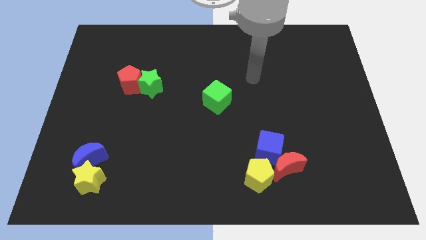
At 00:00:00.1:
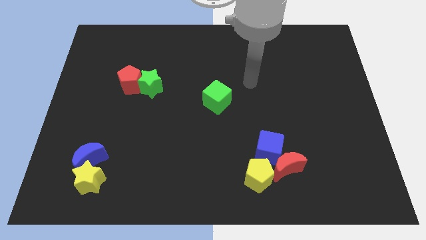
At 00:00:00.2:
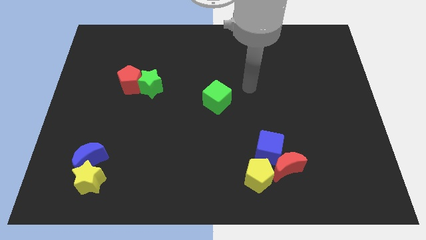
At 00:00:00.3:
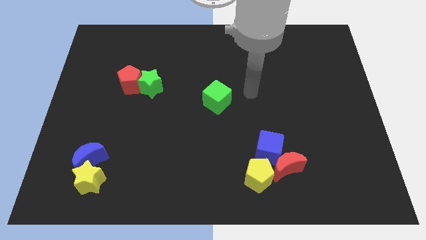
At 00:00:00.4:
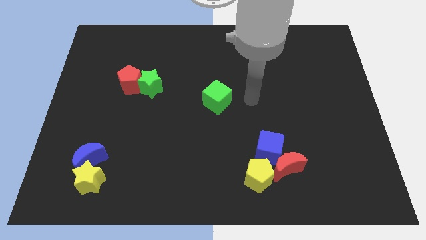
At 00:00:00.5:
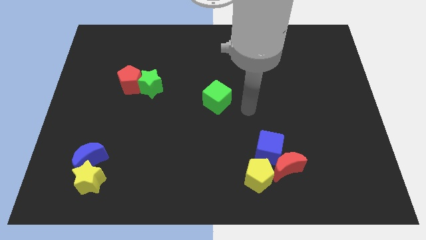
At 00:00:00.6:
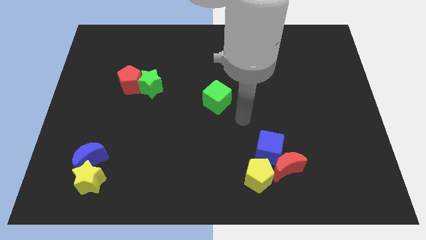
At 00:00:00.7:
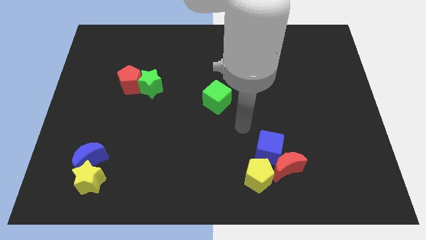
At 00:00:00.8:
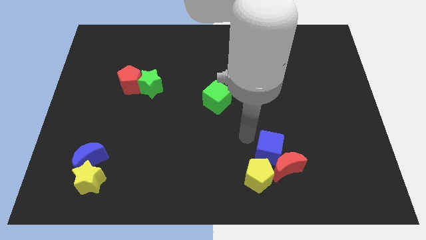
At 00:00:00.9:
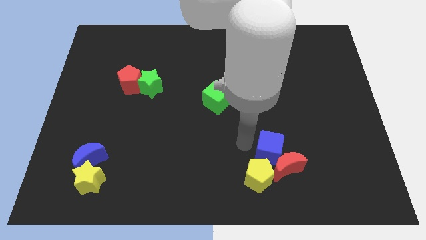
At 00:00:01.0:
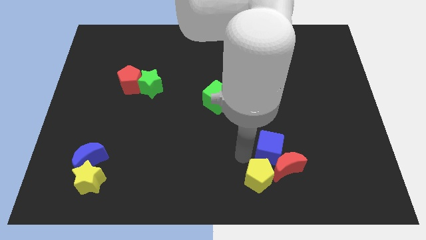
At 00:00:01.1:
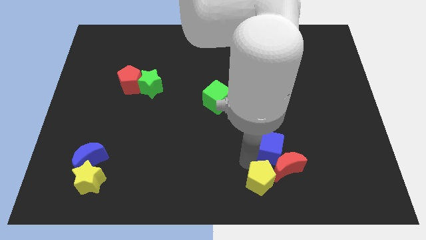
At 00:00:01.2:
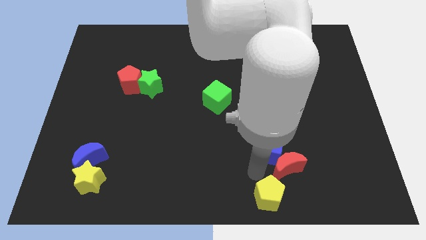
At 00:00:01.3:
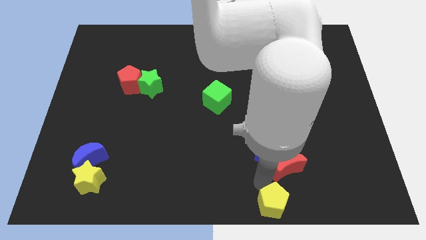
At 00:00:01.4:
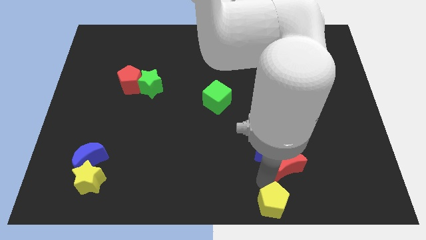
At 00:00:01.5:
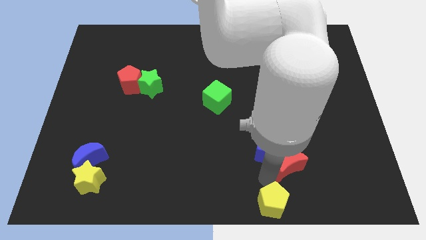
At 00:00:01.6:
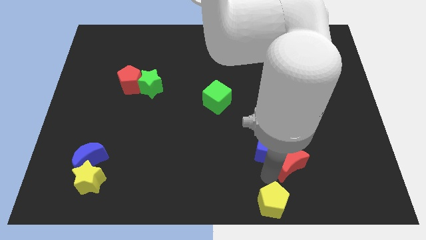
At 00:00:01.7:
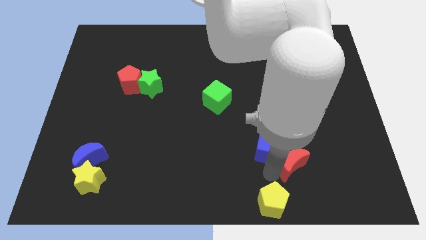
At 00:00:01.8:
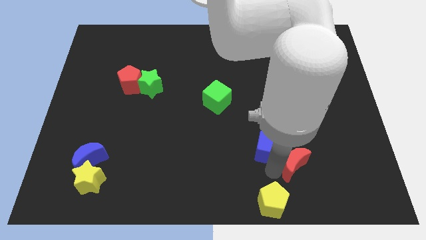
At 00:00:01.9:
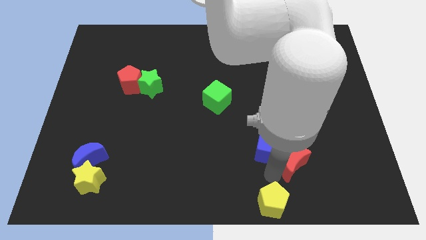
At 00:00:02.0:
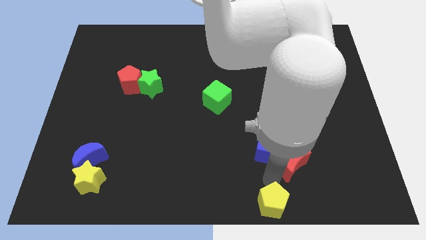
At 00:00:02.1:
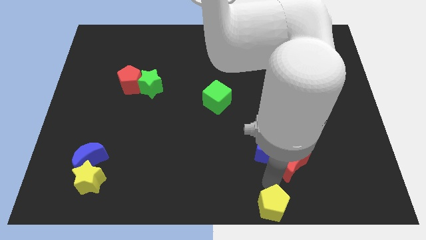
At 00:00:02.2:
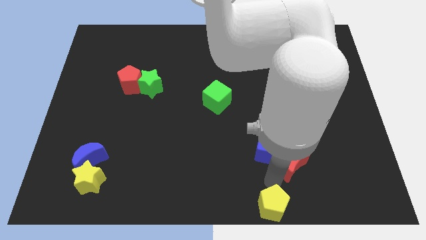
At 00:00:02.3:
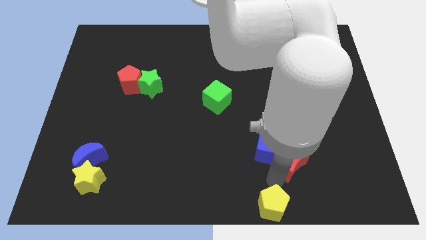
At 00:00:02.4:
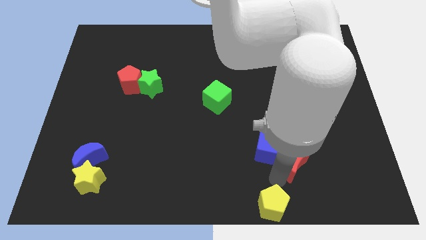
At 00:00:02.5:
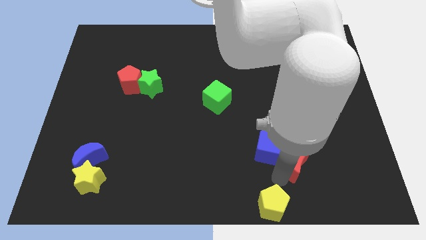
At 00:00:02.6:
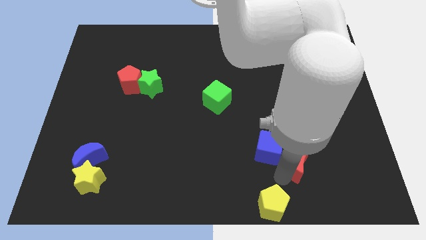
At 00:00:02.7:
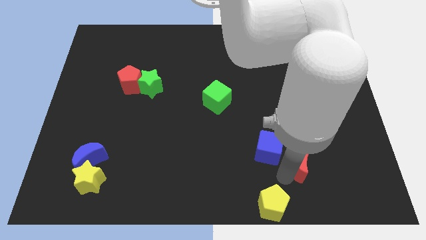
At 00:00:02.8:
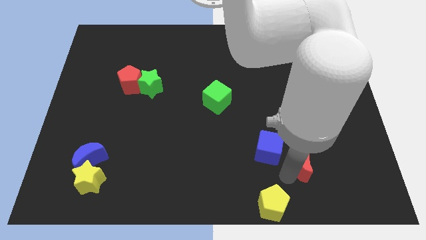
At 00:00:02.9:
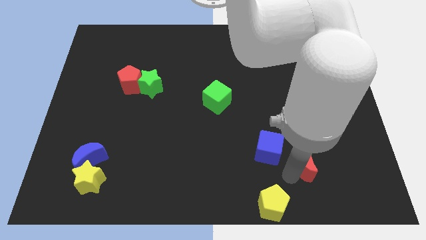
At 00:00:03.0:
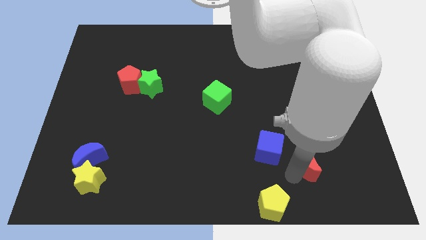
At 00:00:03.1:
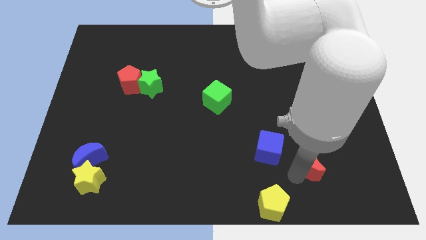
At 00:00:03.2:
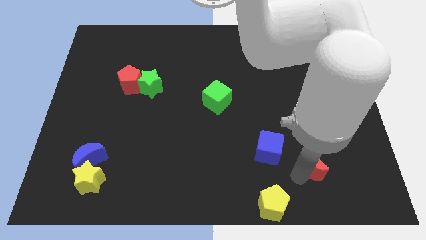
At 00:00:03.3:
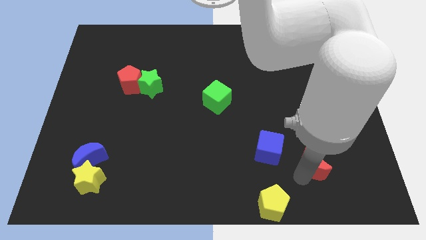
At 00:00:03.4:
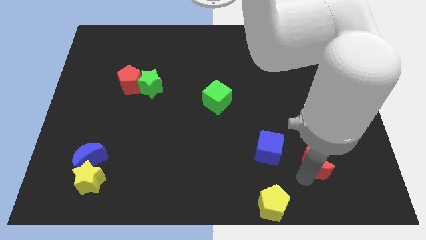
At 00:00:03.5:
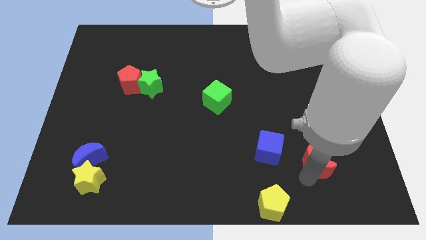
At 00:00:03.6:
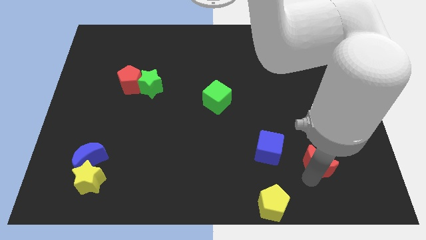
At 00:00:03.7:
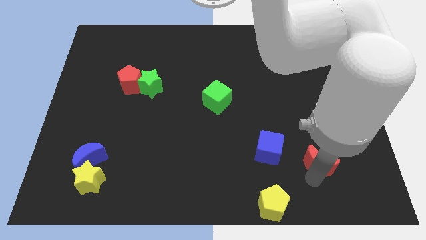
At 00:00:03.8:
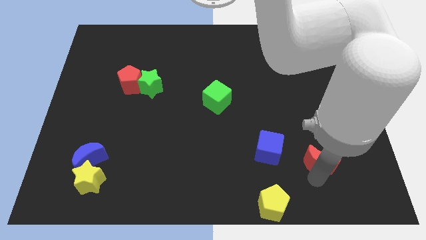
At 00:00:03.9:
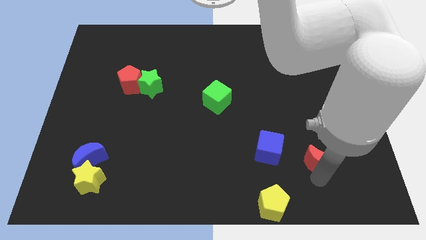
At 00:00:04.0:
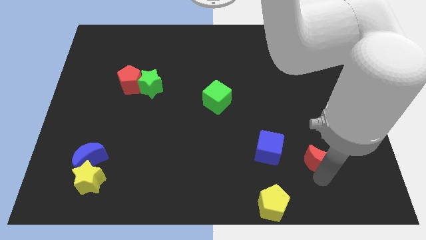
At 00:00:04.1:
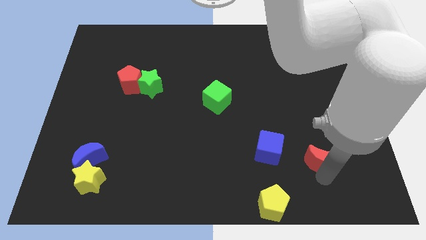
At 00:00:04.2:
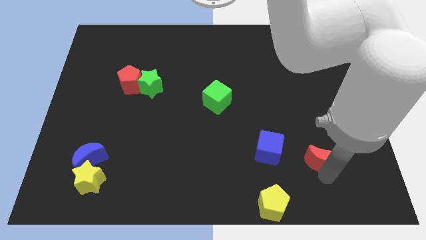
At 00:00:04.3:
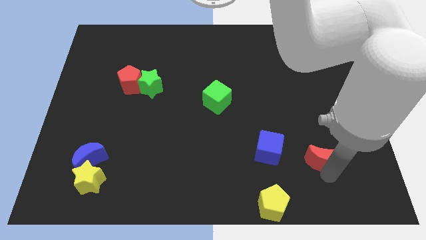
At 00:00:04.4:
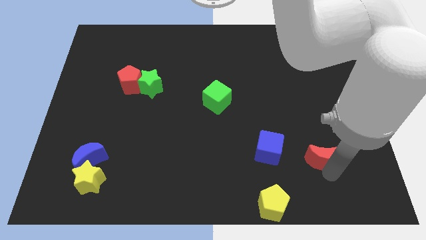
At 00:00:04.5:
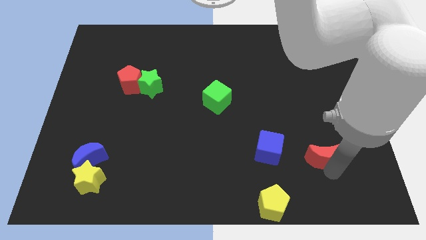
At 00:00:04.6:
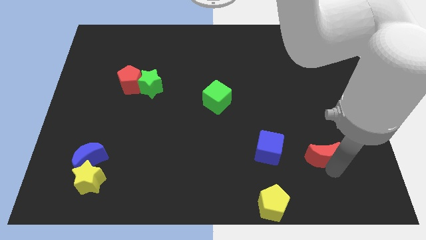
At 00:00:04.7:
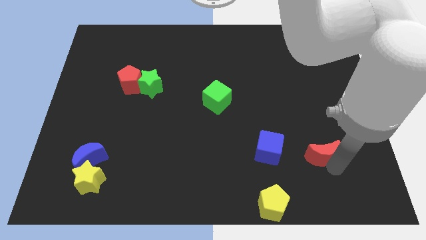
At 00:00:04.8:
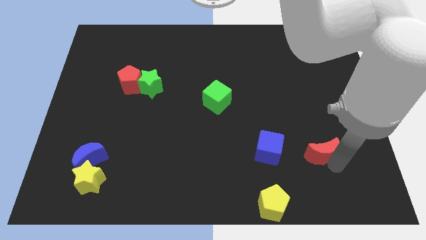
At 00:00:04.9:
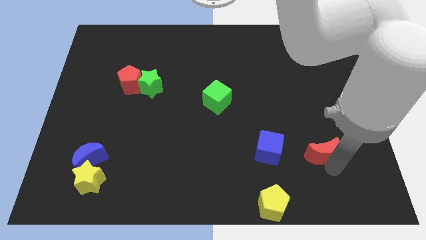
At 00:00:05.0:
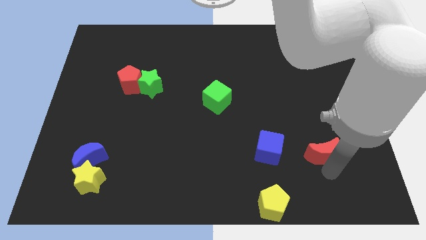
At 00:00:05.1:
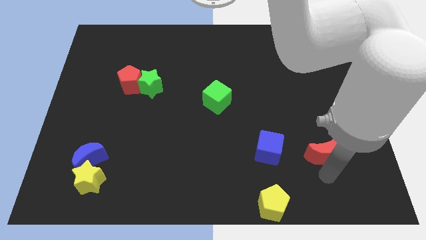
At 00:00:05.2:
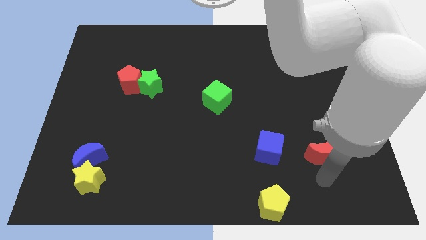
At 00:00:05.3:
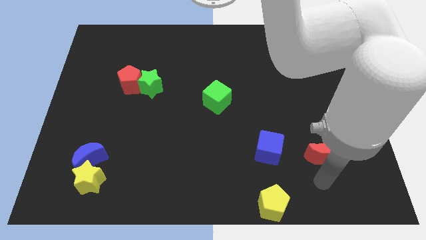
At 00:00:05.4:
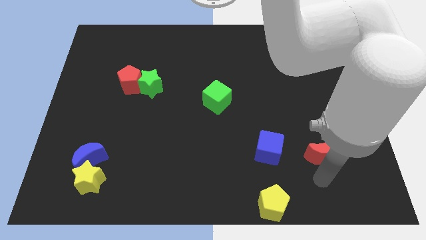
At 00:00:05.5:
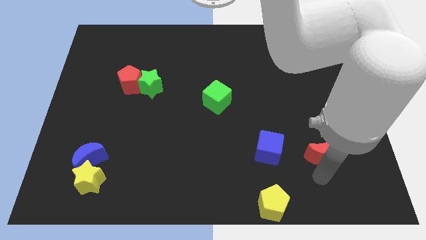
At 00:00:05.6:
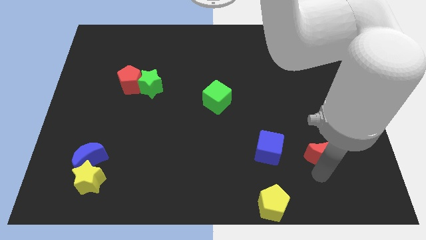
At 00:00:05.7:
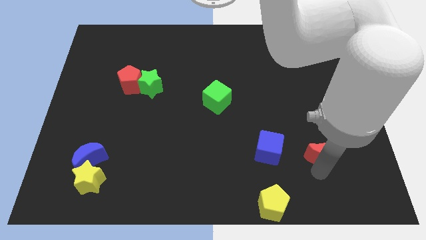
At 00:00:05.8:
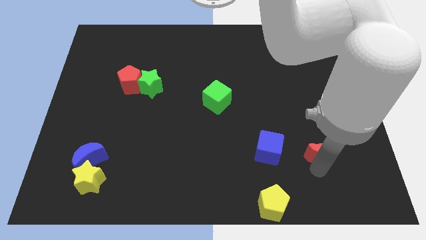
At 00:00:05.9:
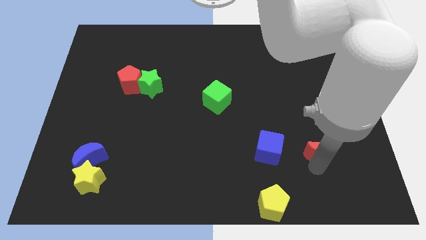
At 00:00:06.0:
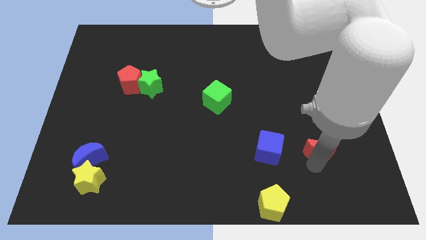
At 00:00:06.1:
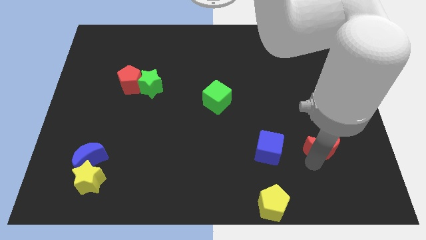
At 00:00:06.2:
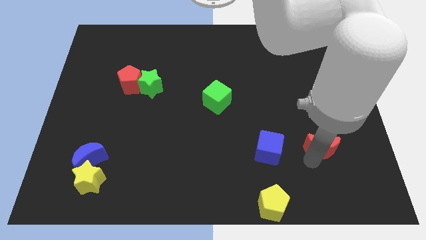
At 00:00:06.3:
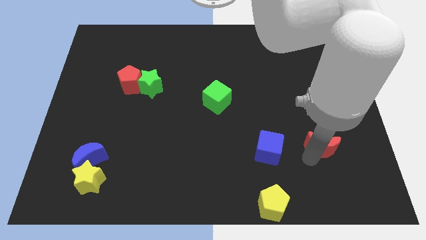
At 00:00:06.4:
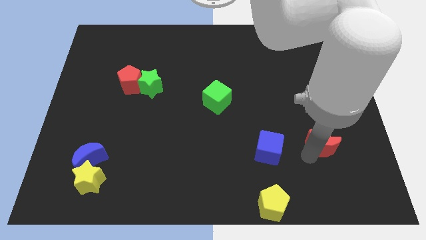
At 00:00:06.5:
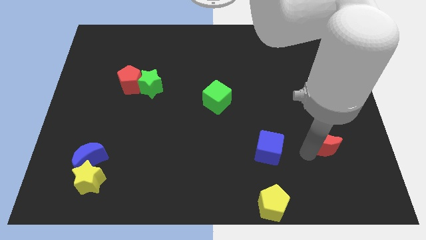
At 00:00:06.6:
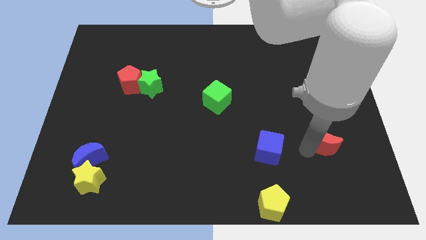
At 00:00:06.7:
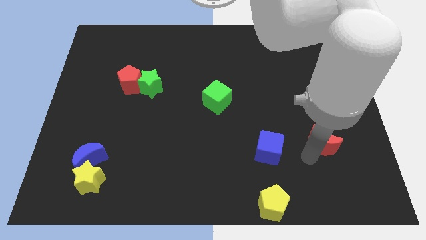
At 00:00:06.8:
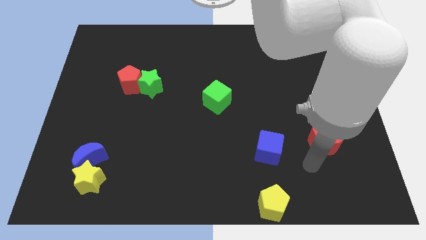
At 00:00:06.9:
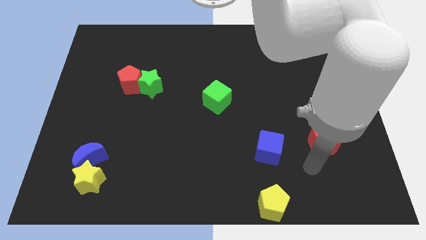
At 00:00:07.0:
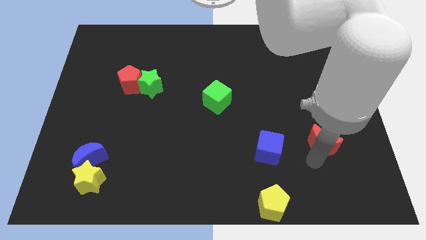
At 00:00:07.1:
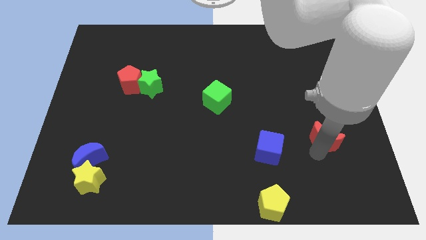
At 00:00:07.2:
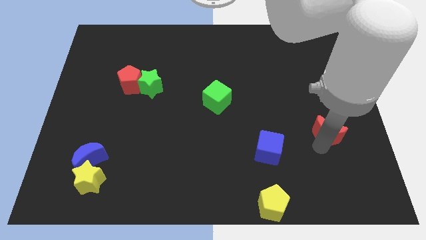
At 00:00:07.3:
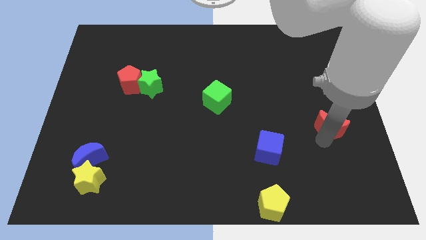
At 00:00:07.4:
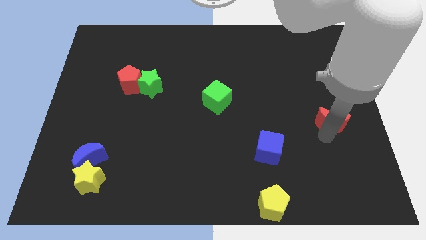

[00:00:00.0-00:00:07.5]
push the red moon to the right side
